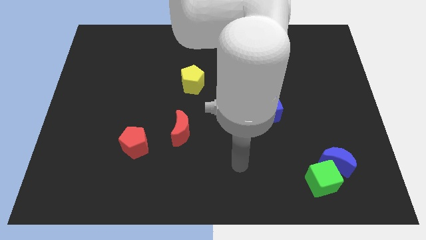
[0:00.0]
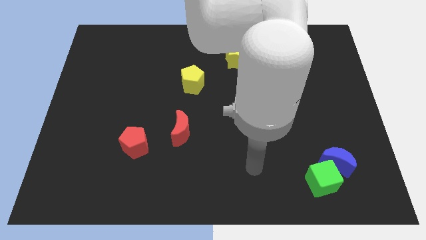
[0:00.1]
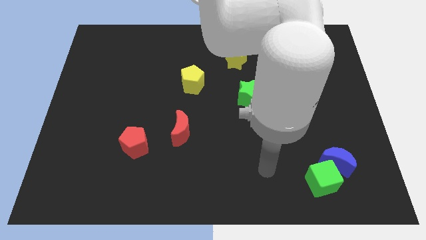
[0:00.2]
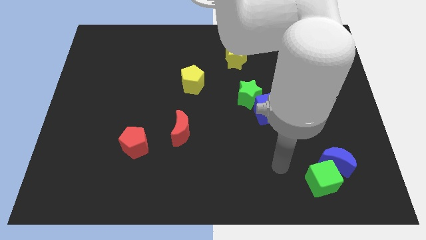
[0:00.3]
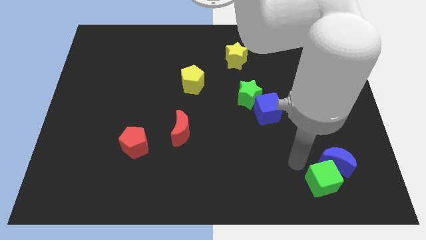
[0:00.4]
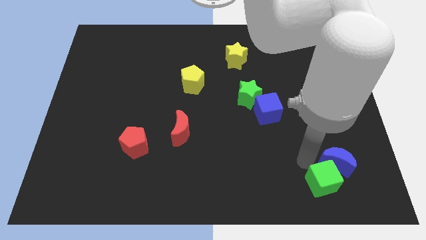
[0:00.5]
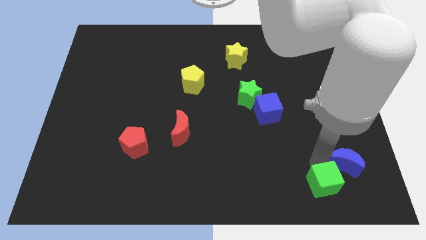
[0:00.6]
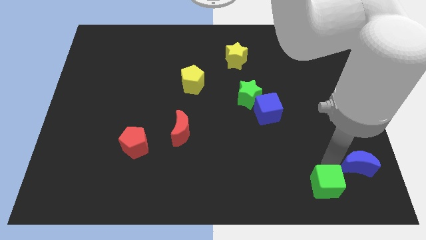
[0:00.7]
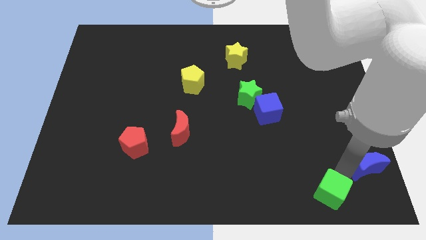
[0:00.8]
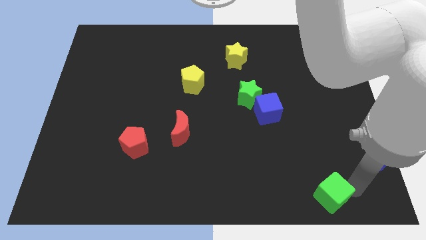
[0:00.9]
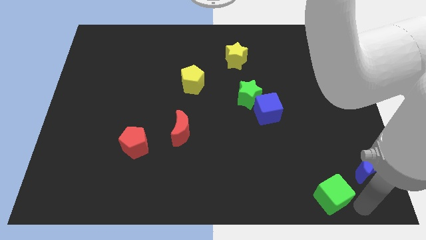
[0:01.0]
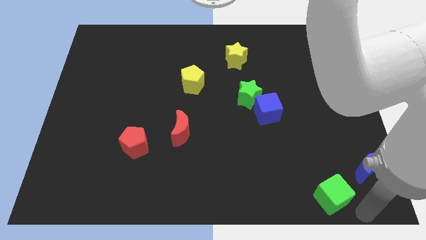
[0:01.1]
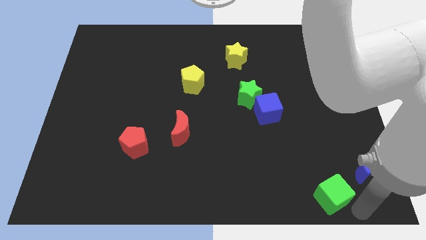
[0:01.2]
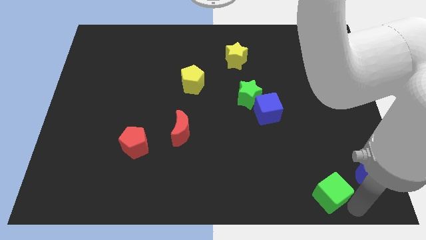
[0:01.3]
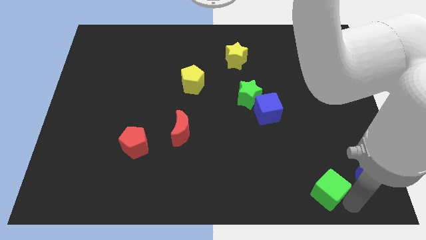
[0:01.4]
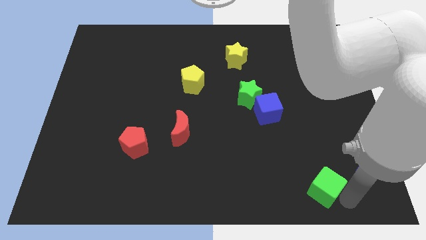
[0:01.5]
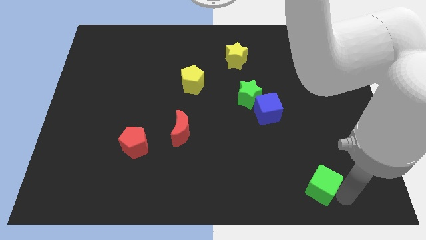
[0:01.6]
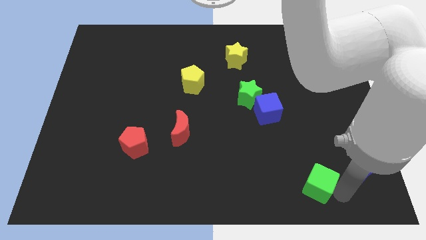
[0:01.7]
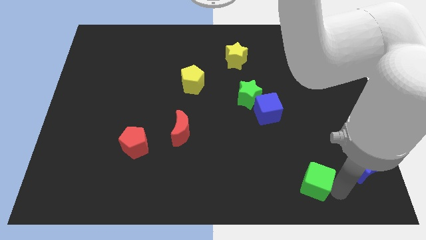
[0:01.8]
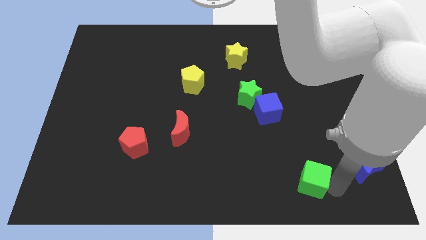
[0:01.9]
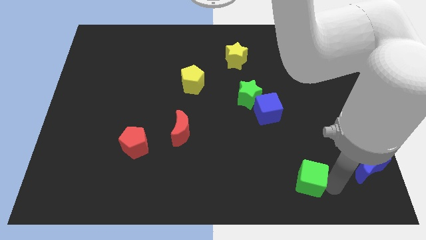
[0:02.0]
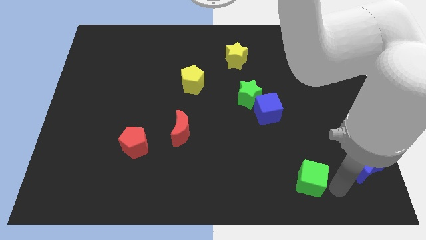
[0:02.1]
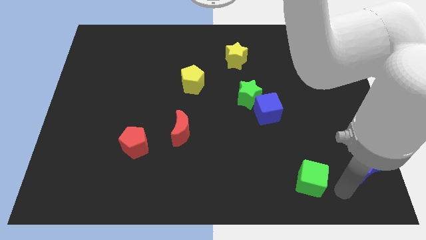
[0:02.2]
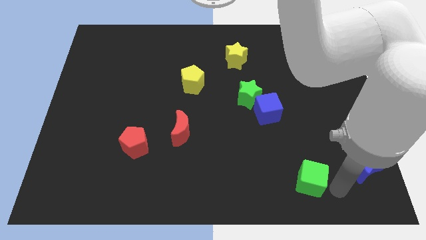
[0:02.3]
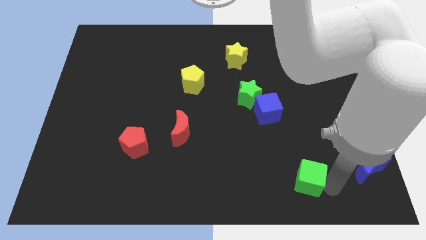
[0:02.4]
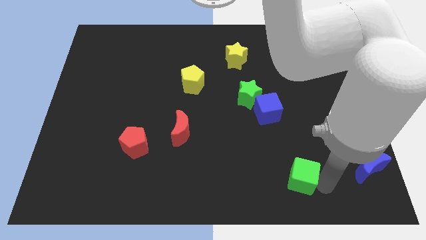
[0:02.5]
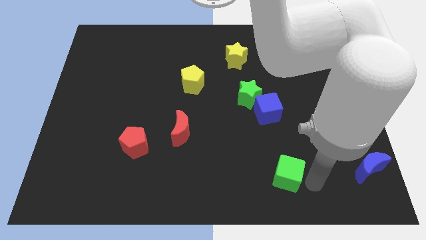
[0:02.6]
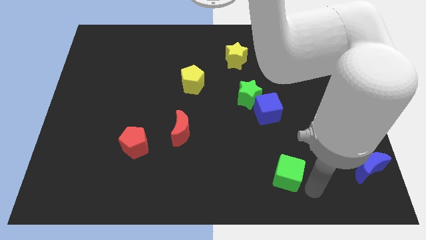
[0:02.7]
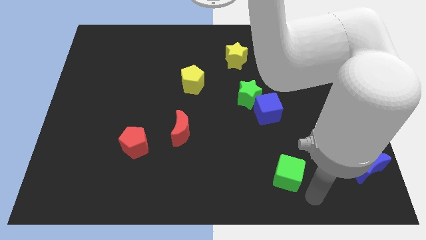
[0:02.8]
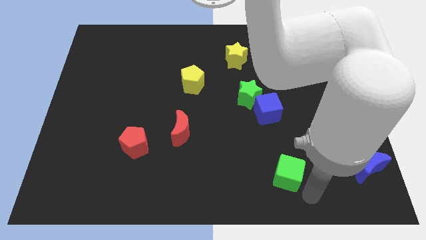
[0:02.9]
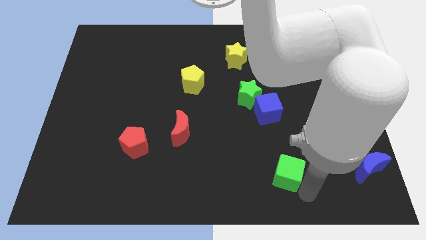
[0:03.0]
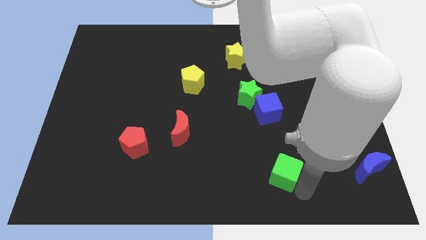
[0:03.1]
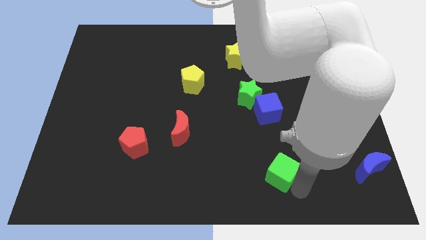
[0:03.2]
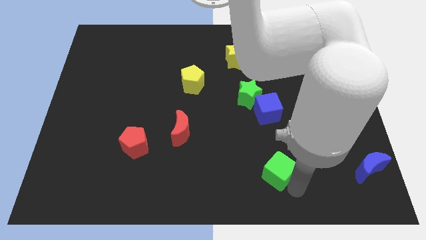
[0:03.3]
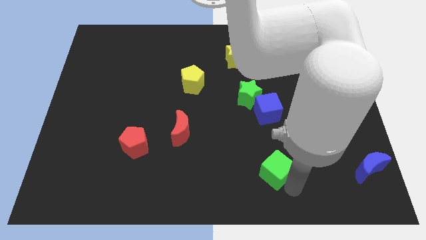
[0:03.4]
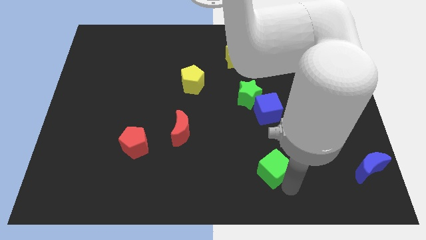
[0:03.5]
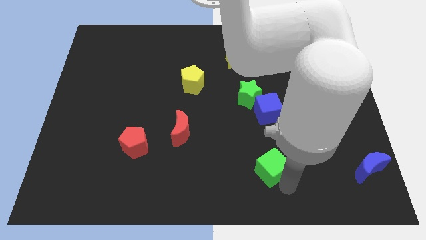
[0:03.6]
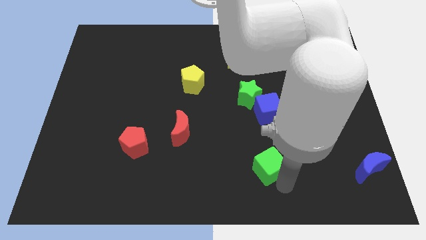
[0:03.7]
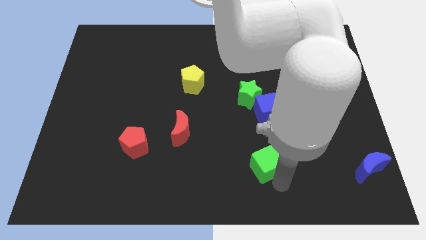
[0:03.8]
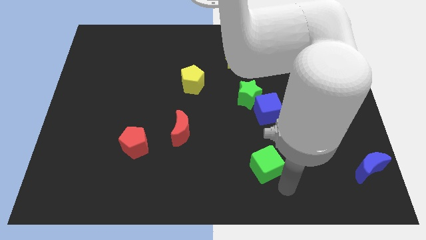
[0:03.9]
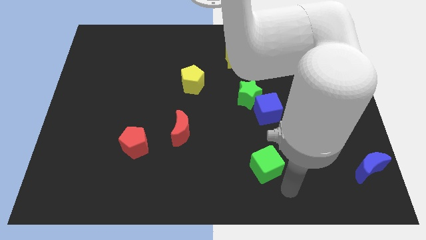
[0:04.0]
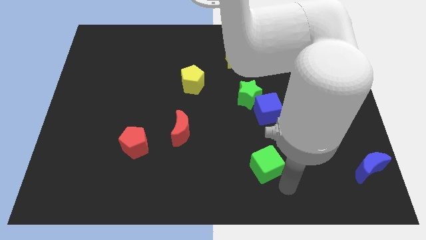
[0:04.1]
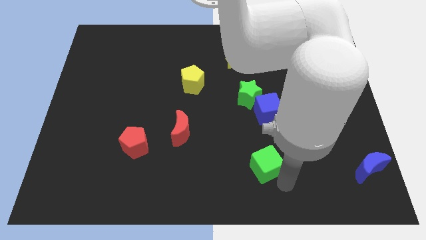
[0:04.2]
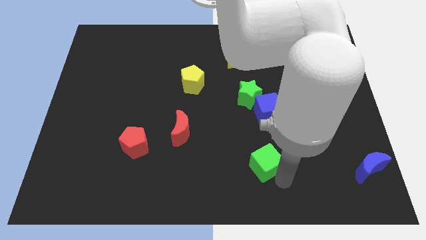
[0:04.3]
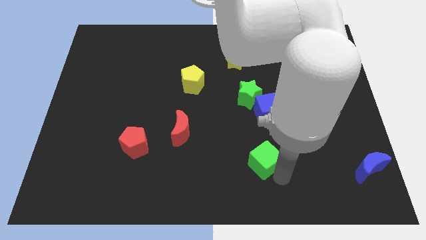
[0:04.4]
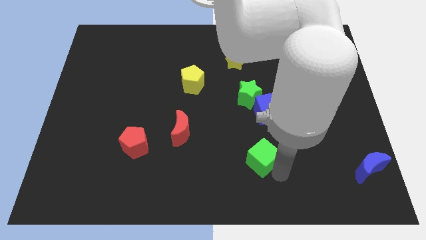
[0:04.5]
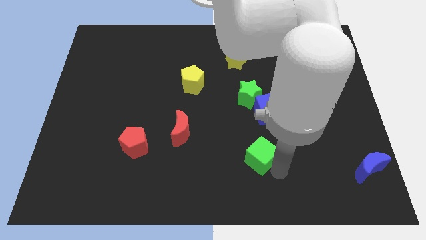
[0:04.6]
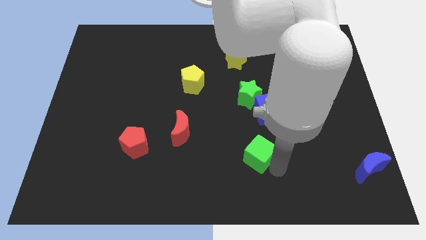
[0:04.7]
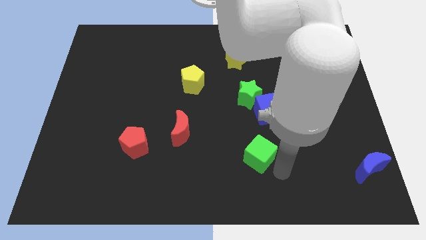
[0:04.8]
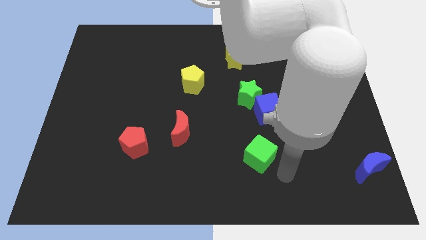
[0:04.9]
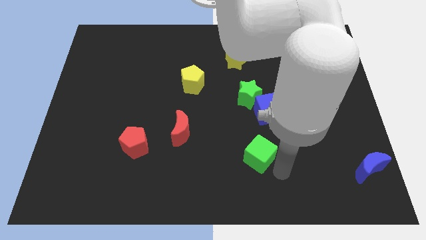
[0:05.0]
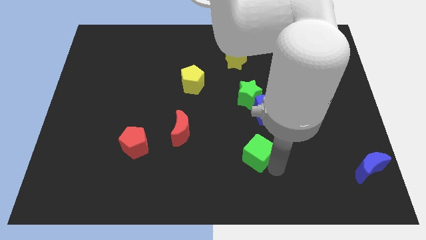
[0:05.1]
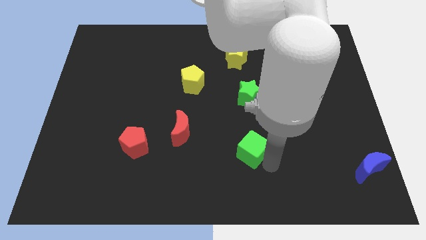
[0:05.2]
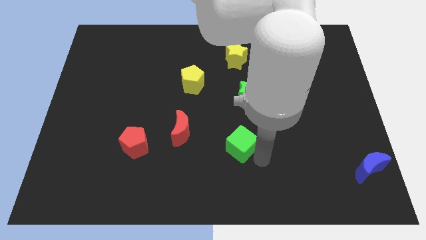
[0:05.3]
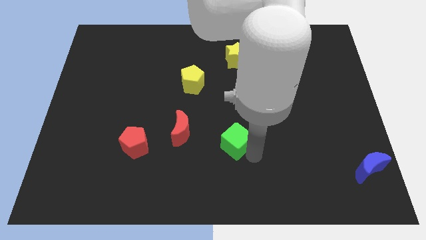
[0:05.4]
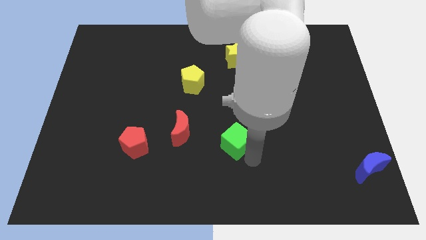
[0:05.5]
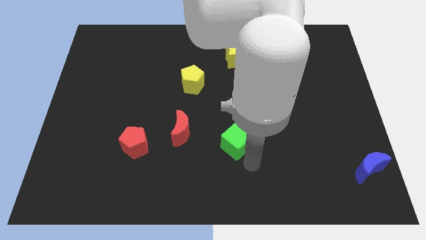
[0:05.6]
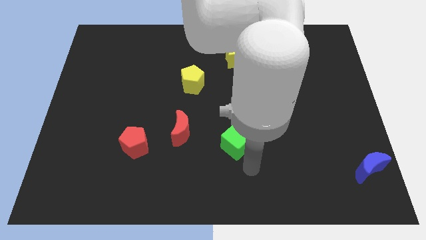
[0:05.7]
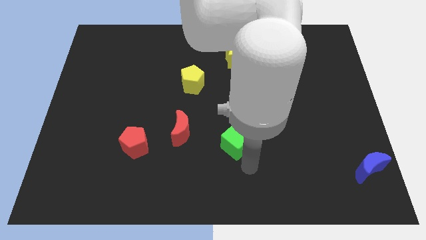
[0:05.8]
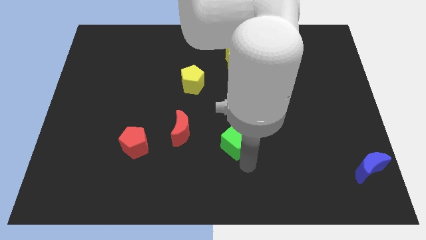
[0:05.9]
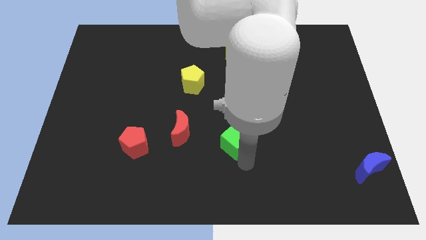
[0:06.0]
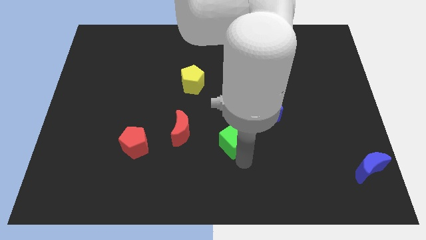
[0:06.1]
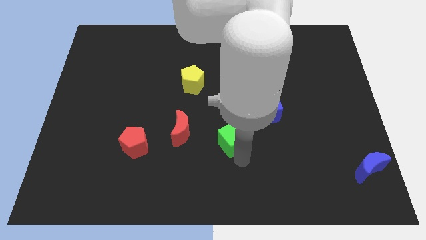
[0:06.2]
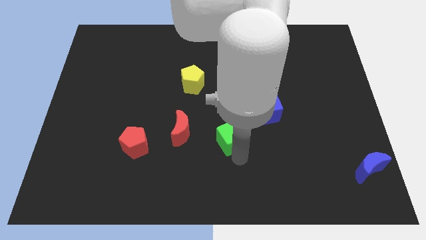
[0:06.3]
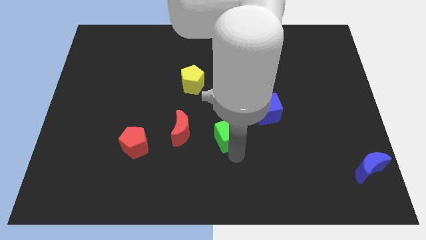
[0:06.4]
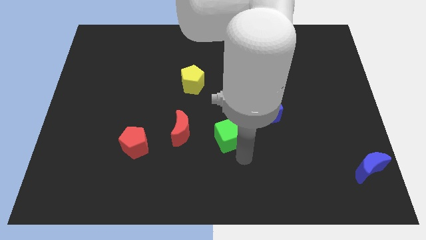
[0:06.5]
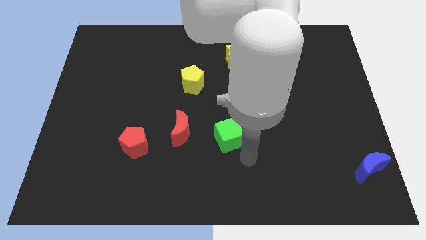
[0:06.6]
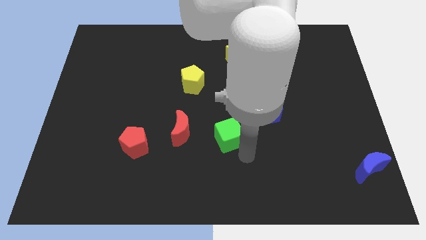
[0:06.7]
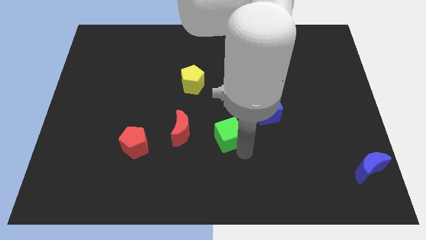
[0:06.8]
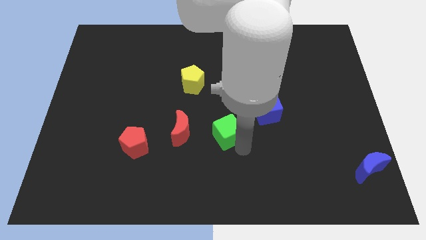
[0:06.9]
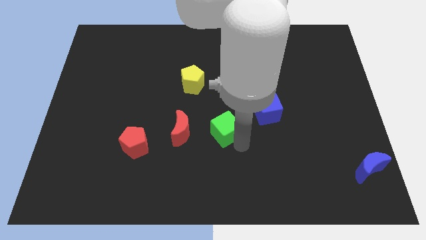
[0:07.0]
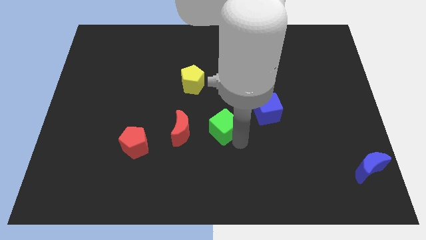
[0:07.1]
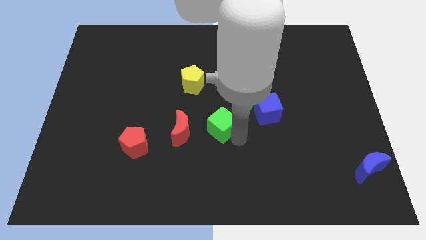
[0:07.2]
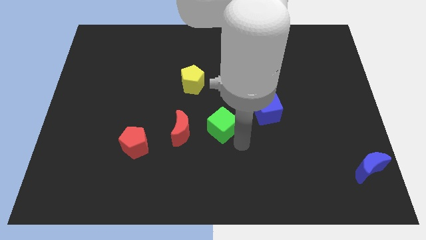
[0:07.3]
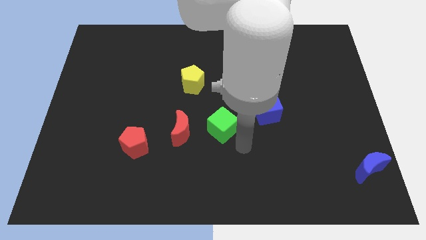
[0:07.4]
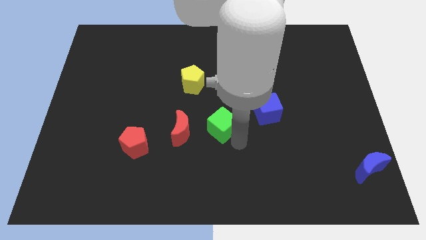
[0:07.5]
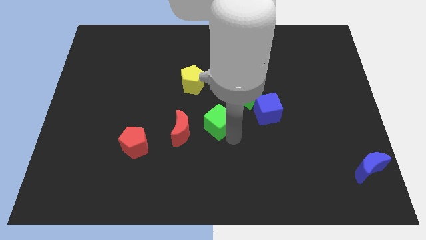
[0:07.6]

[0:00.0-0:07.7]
slide the green cube to the top right of the red moon

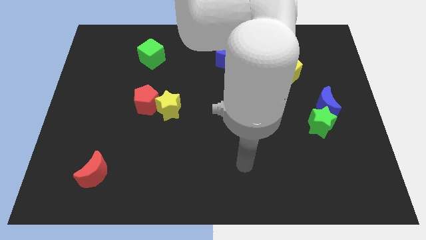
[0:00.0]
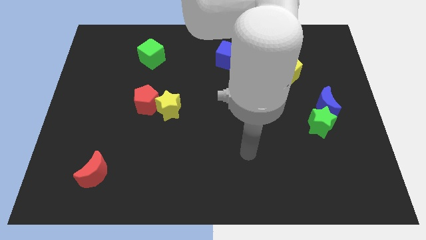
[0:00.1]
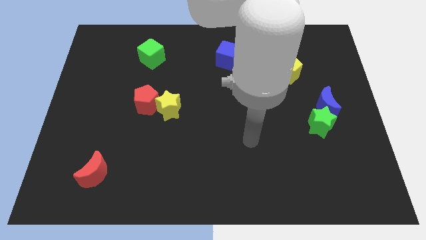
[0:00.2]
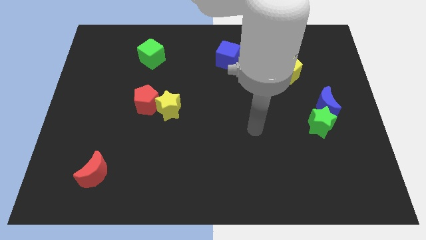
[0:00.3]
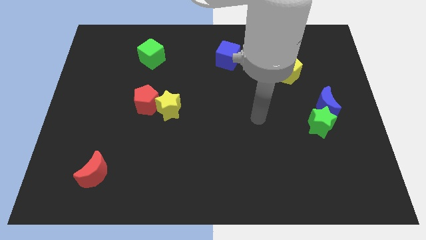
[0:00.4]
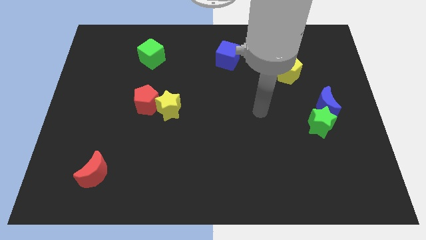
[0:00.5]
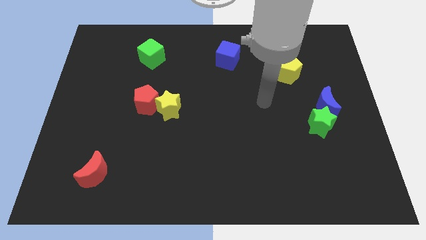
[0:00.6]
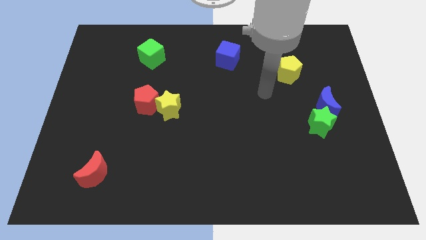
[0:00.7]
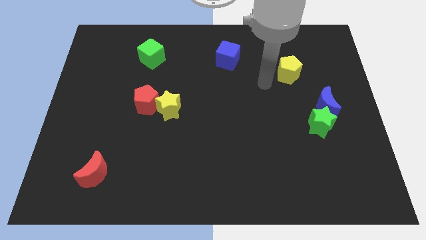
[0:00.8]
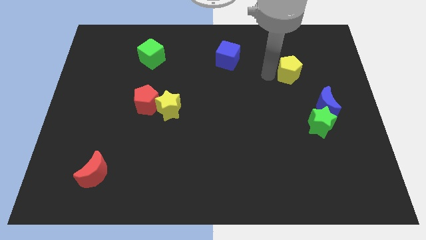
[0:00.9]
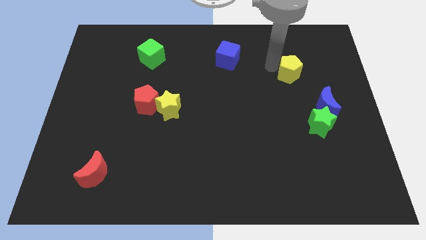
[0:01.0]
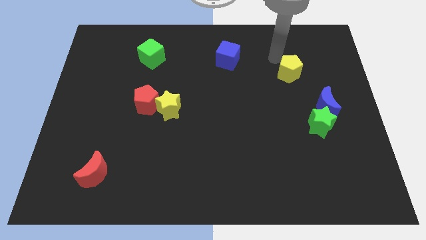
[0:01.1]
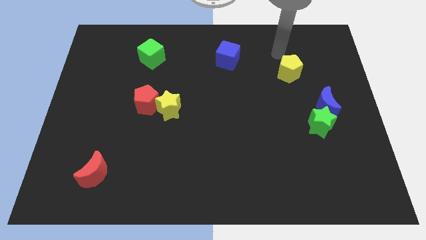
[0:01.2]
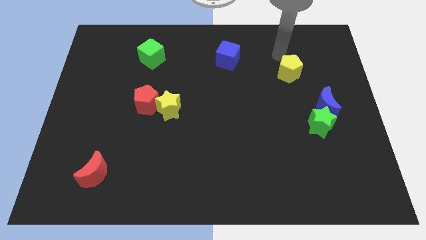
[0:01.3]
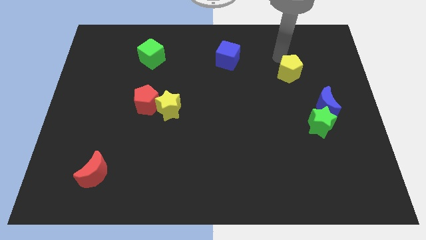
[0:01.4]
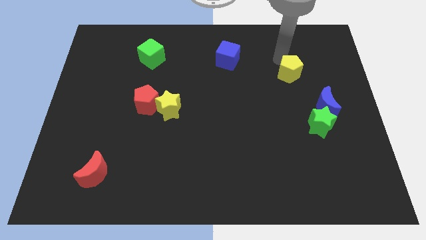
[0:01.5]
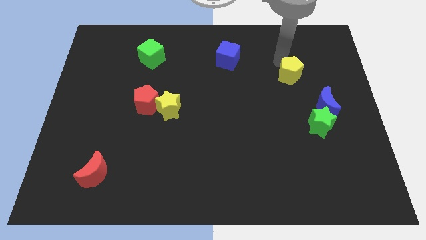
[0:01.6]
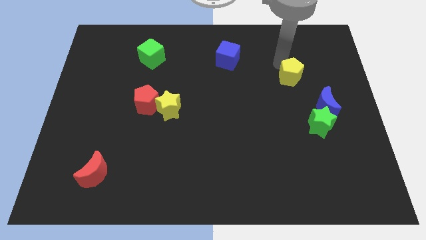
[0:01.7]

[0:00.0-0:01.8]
put the yellow pentagon to the top left of the blue moon
